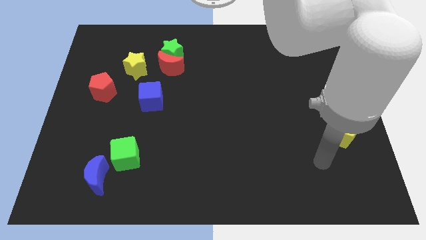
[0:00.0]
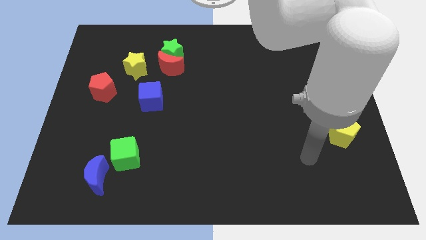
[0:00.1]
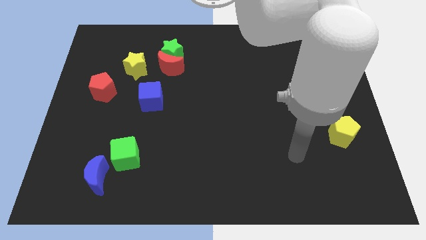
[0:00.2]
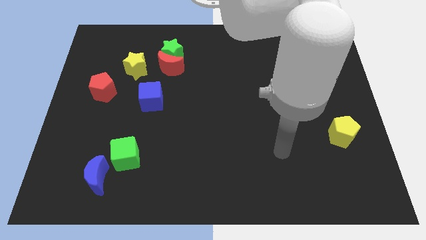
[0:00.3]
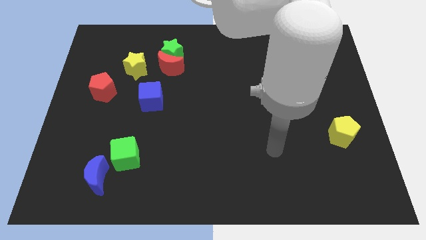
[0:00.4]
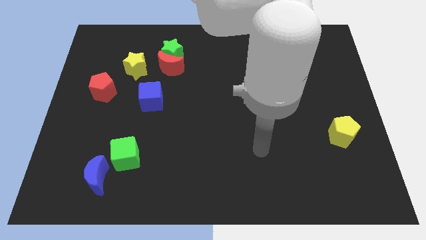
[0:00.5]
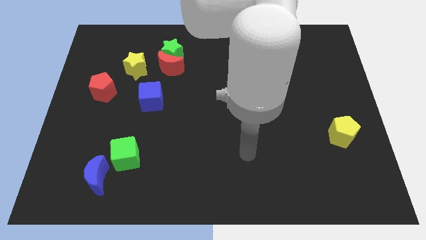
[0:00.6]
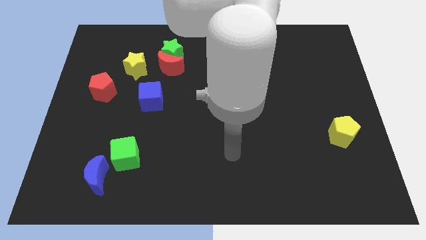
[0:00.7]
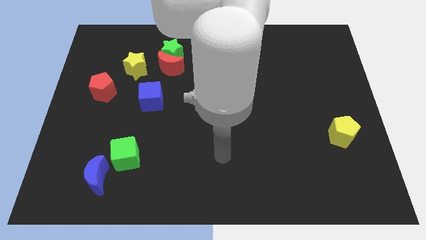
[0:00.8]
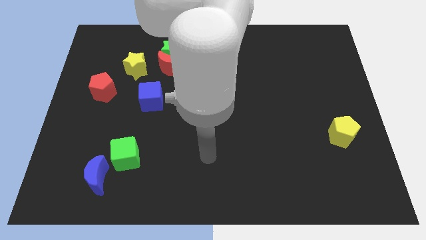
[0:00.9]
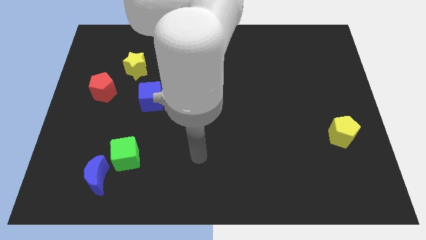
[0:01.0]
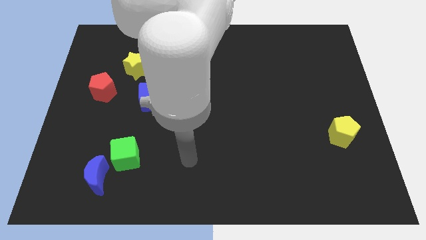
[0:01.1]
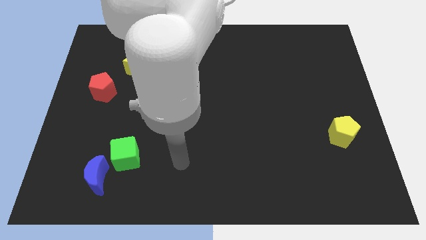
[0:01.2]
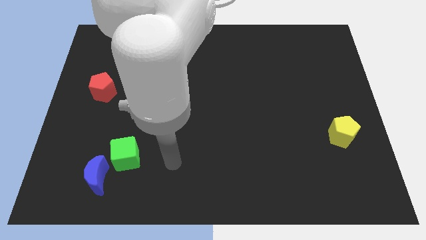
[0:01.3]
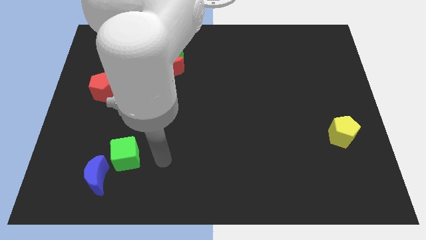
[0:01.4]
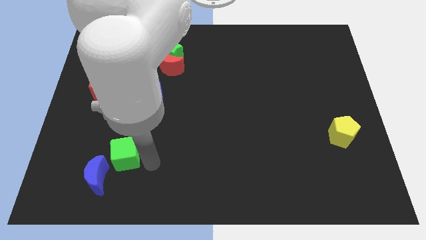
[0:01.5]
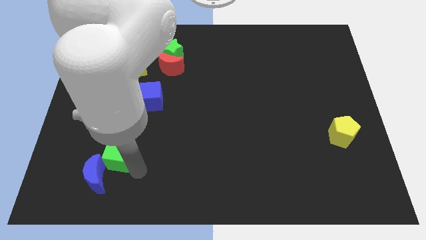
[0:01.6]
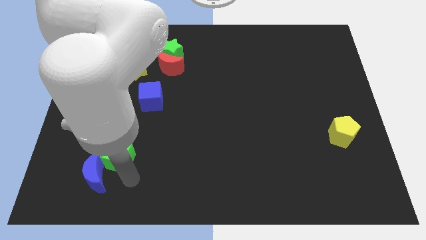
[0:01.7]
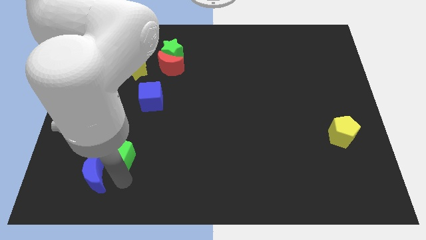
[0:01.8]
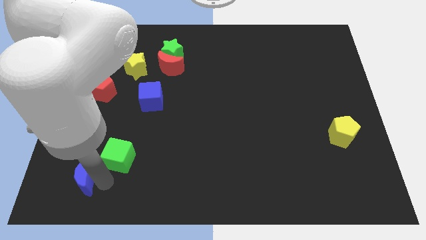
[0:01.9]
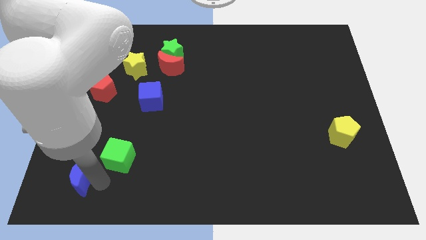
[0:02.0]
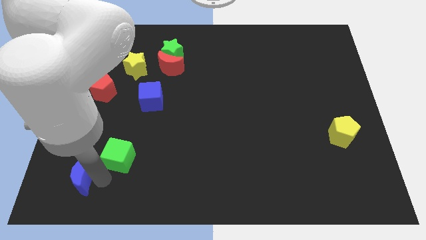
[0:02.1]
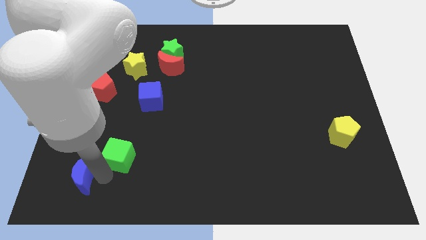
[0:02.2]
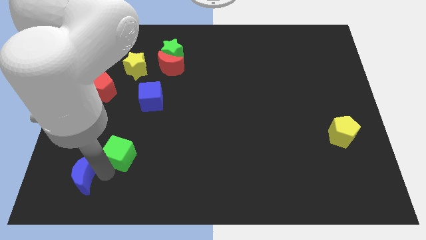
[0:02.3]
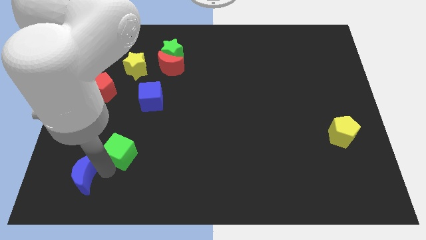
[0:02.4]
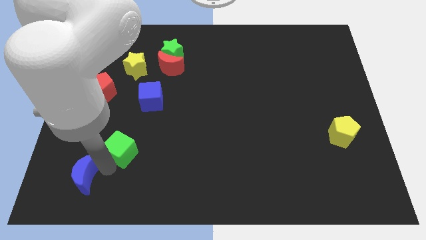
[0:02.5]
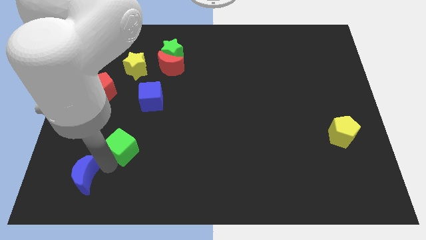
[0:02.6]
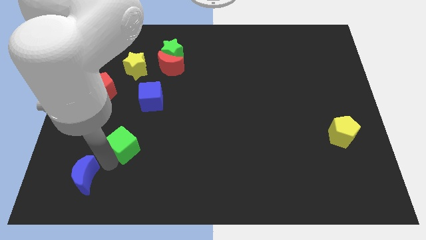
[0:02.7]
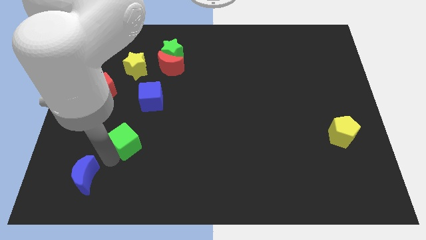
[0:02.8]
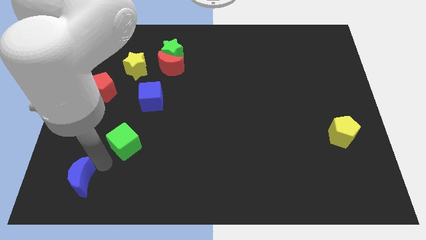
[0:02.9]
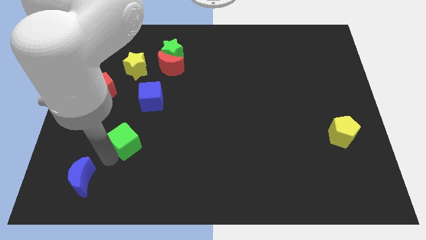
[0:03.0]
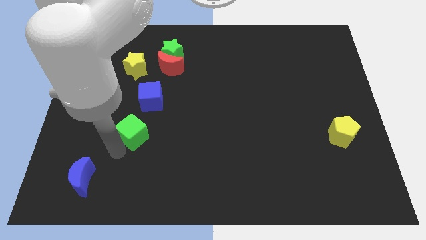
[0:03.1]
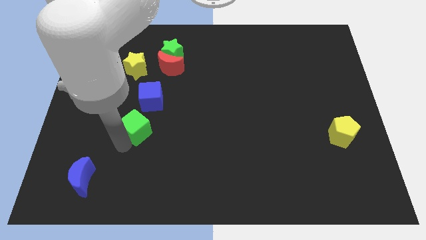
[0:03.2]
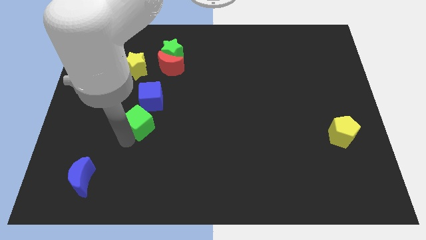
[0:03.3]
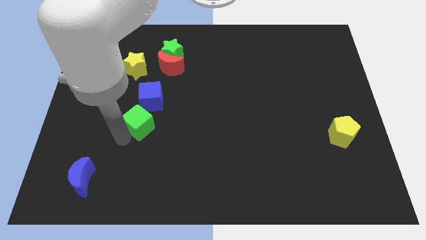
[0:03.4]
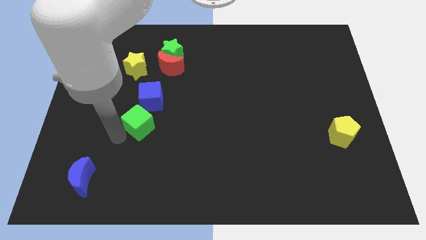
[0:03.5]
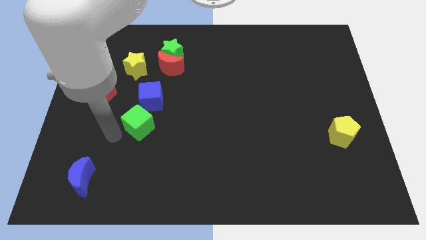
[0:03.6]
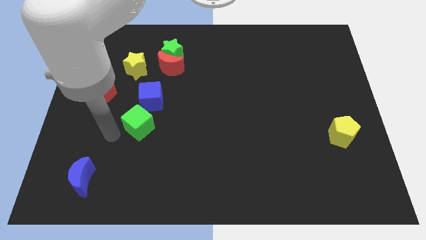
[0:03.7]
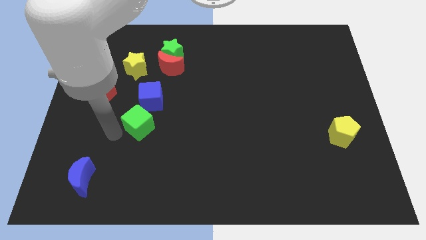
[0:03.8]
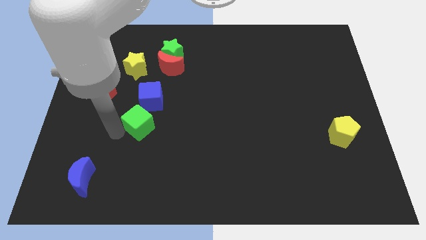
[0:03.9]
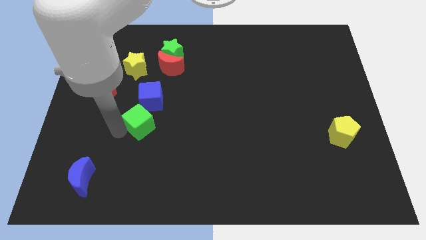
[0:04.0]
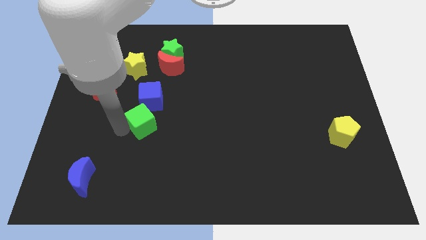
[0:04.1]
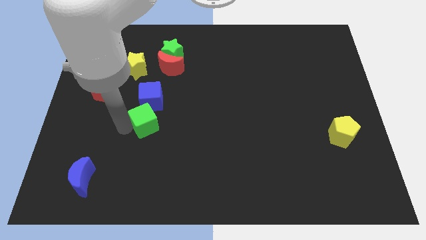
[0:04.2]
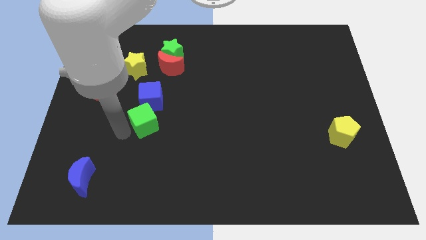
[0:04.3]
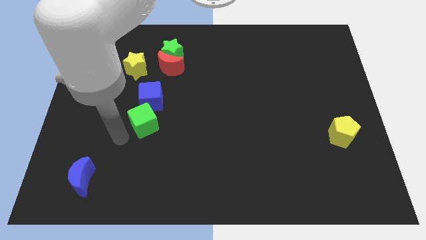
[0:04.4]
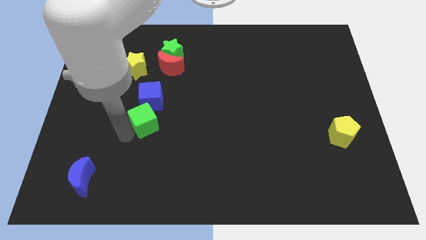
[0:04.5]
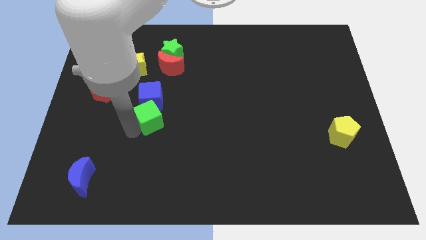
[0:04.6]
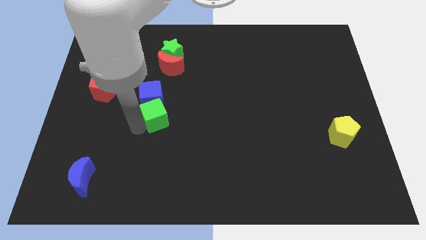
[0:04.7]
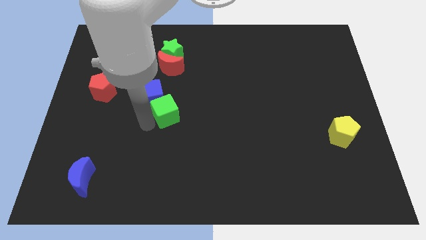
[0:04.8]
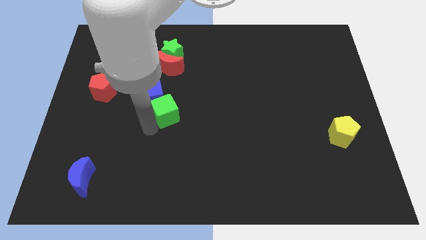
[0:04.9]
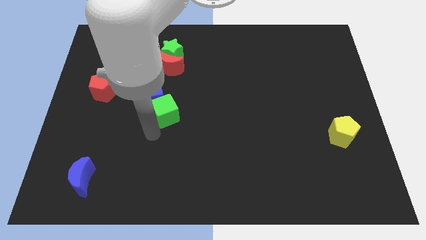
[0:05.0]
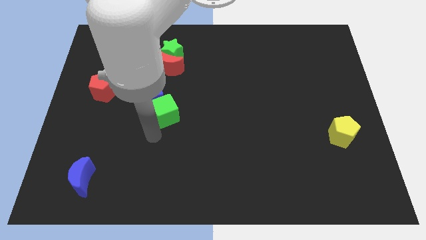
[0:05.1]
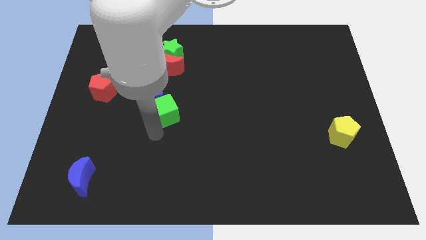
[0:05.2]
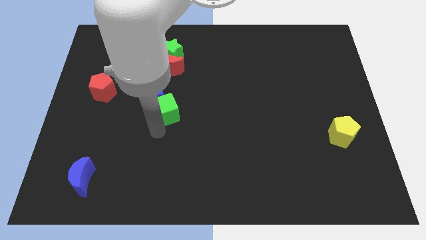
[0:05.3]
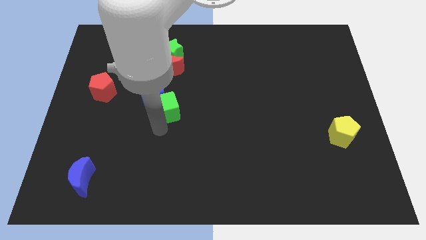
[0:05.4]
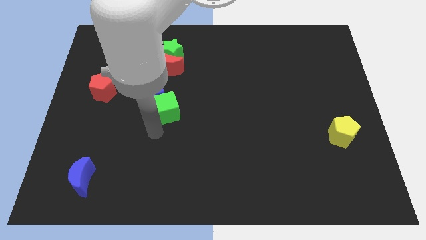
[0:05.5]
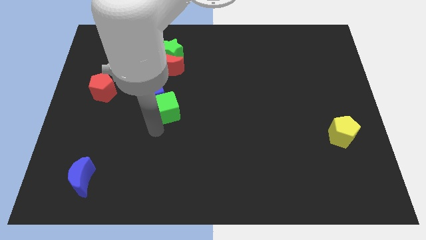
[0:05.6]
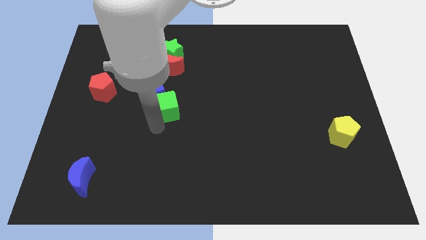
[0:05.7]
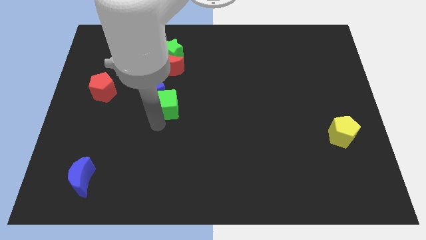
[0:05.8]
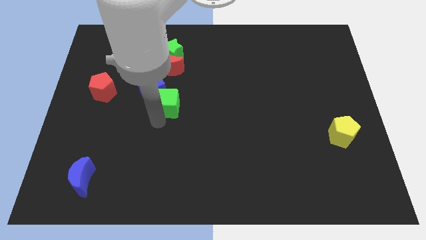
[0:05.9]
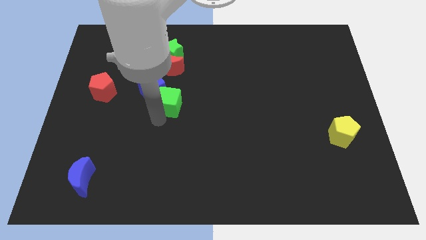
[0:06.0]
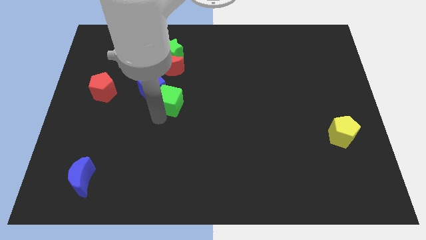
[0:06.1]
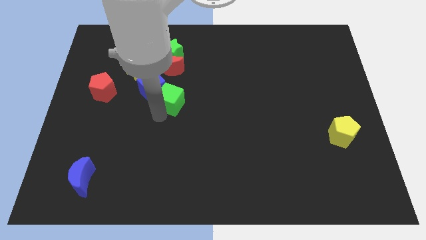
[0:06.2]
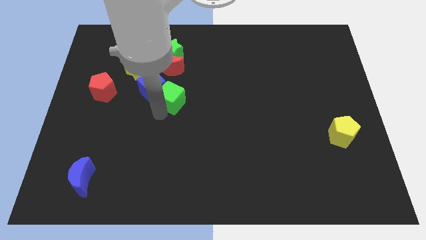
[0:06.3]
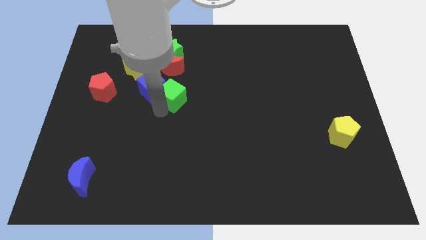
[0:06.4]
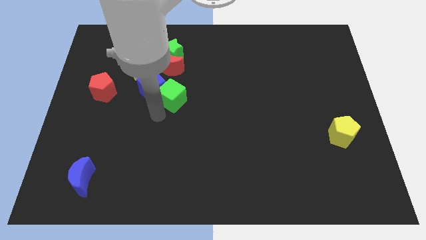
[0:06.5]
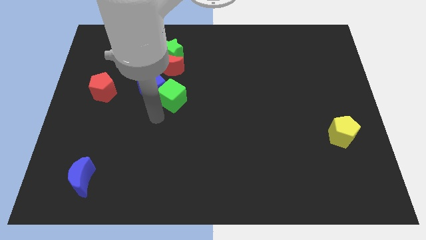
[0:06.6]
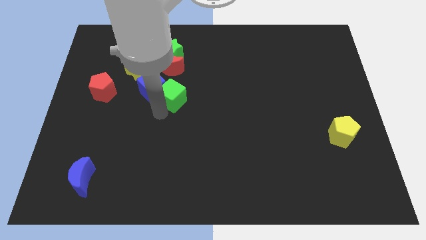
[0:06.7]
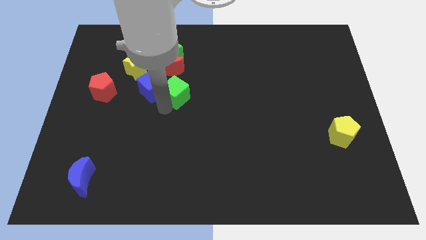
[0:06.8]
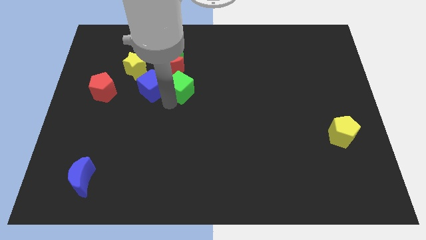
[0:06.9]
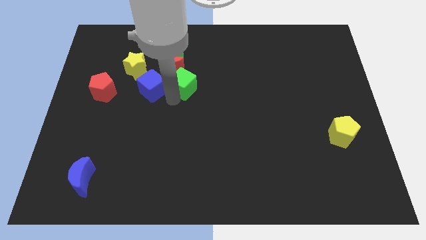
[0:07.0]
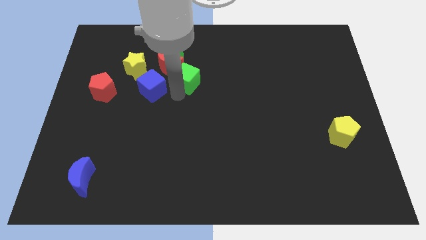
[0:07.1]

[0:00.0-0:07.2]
put the green cube to the bottom right side of the green star

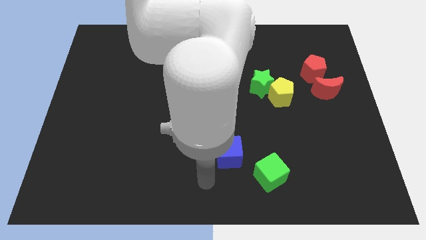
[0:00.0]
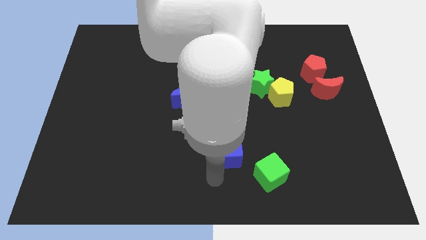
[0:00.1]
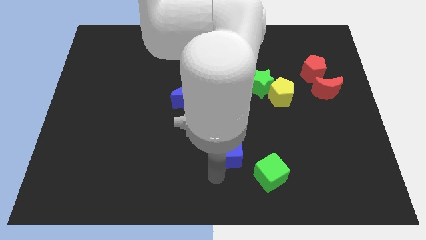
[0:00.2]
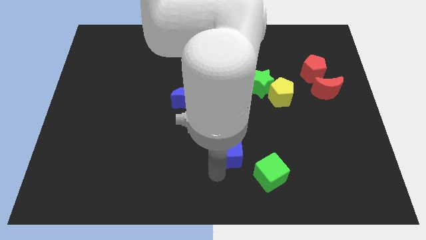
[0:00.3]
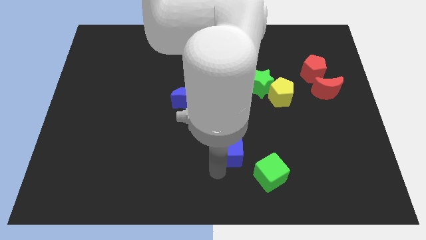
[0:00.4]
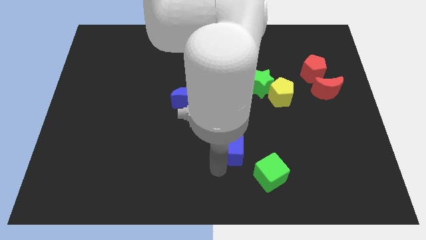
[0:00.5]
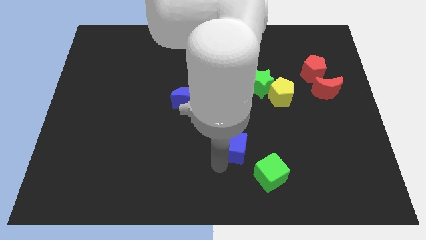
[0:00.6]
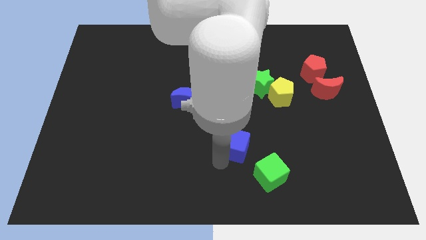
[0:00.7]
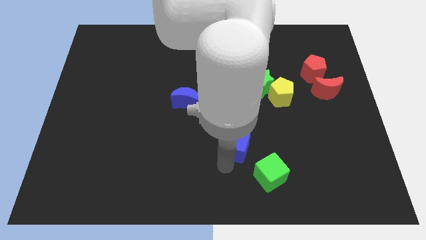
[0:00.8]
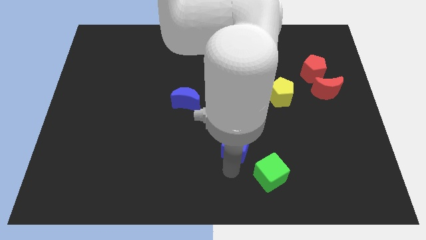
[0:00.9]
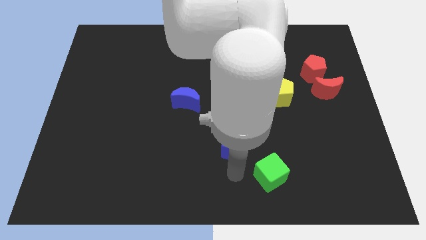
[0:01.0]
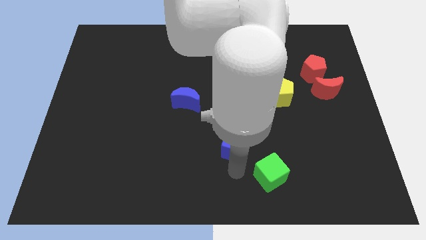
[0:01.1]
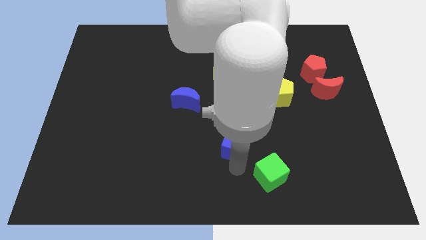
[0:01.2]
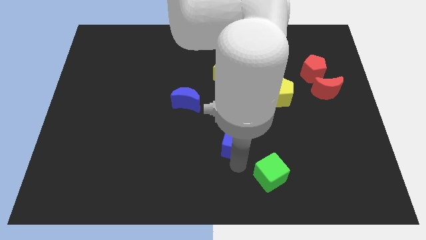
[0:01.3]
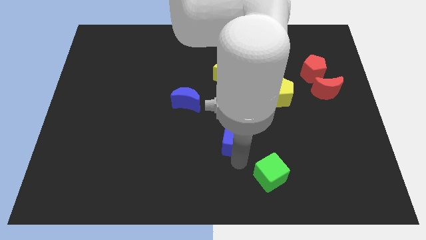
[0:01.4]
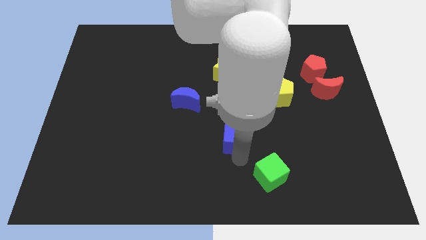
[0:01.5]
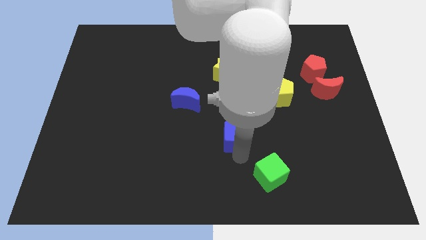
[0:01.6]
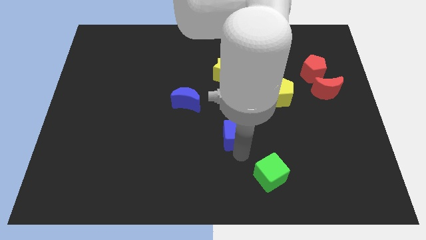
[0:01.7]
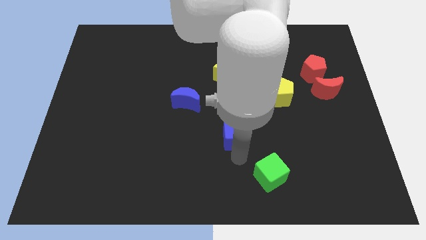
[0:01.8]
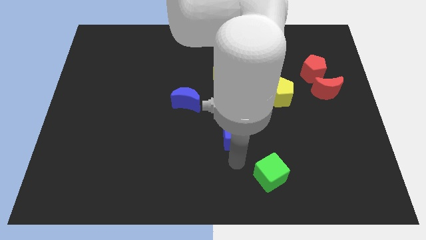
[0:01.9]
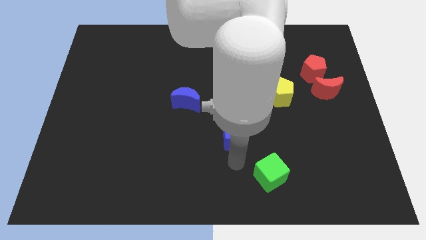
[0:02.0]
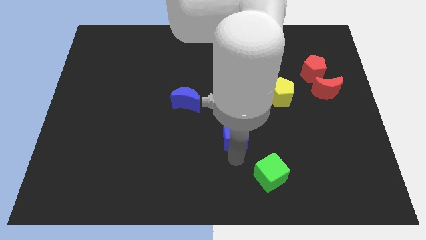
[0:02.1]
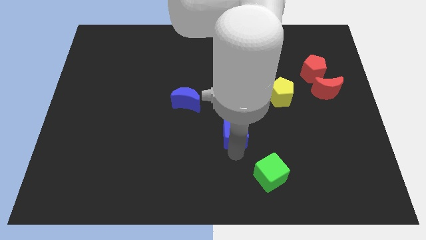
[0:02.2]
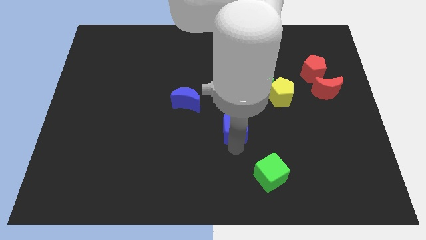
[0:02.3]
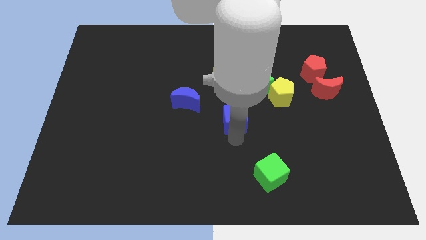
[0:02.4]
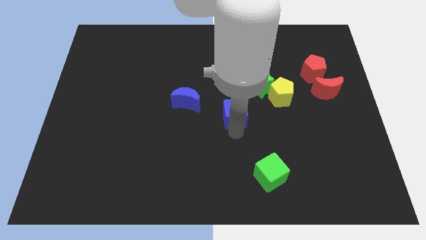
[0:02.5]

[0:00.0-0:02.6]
put the blue cube right of the blue moon
